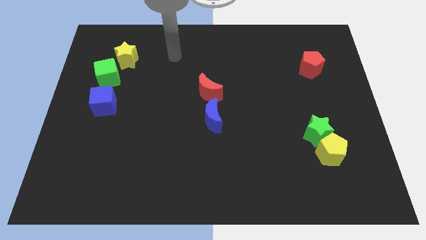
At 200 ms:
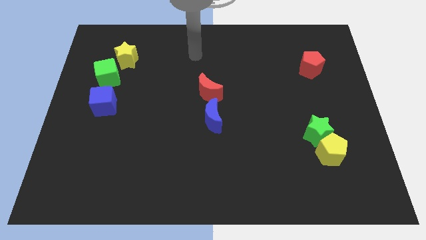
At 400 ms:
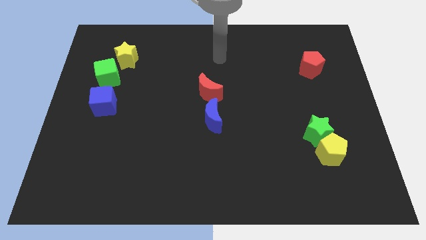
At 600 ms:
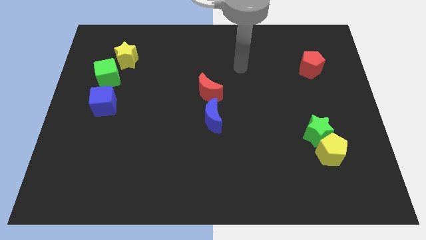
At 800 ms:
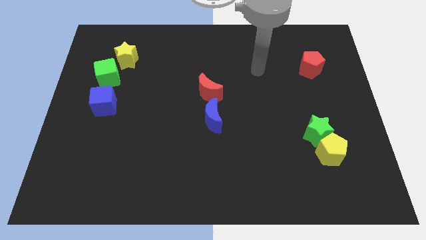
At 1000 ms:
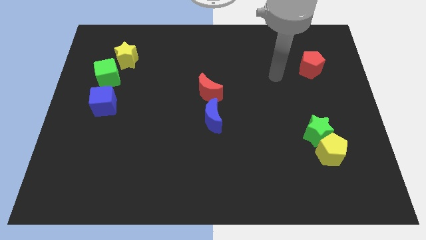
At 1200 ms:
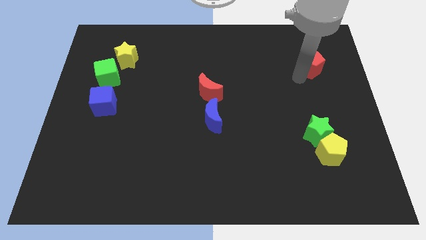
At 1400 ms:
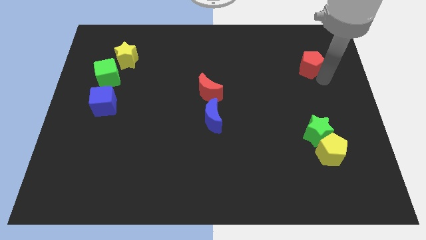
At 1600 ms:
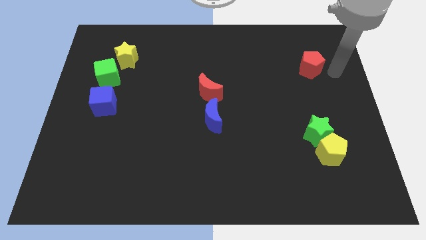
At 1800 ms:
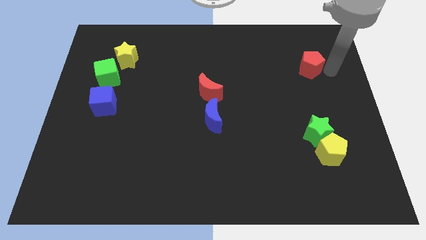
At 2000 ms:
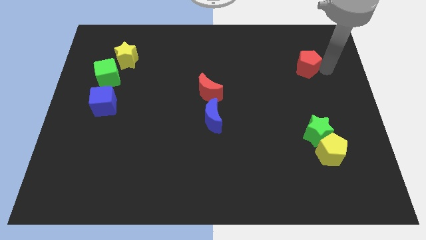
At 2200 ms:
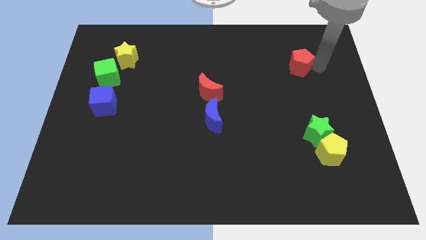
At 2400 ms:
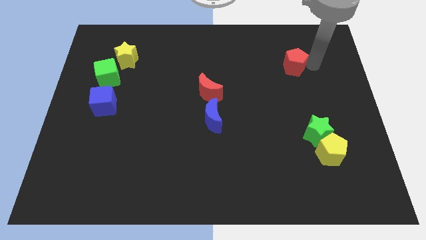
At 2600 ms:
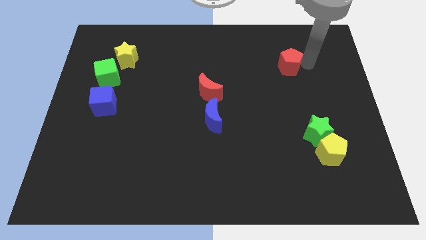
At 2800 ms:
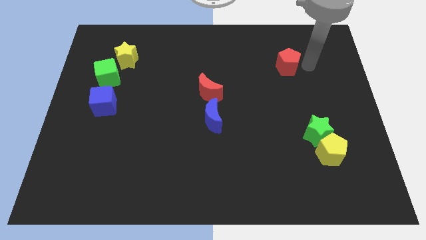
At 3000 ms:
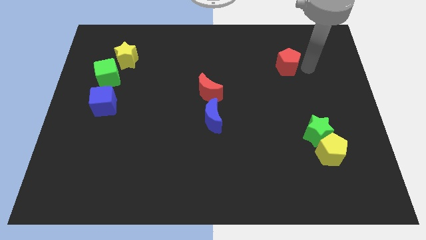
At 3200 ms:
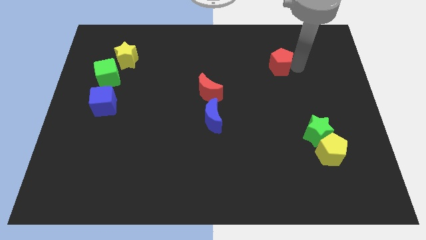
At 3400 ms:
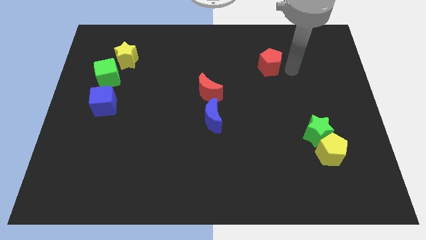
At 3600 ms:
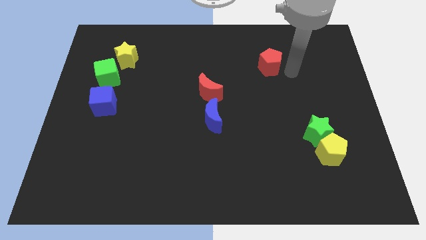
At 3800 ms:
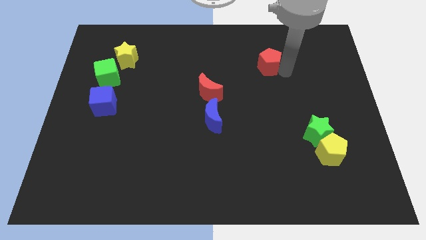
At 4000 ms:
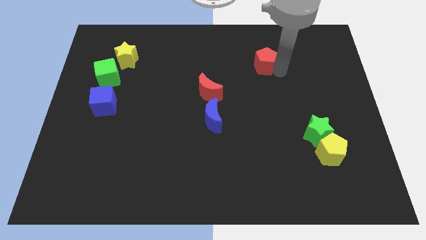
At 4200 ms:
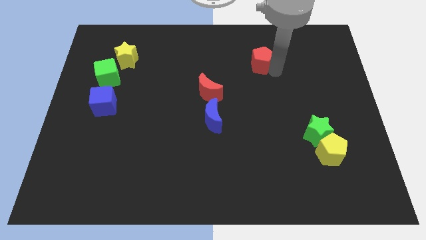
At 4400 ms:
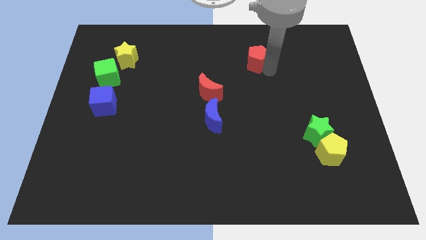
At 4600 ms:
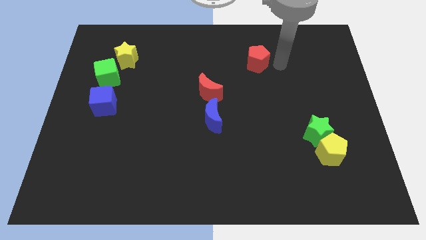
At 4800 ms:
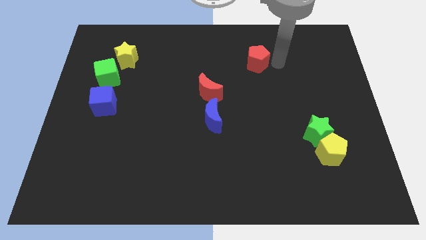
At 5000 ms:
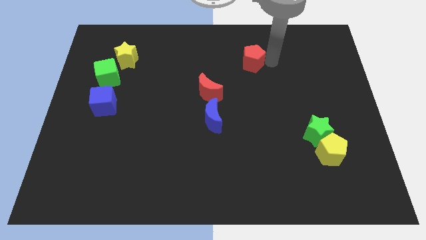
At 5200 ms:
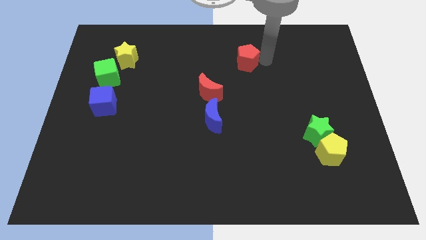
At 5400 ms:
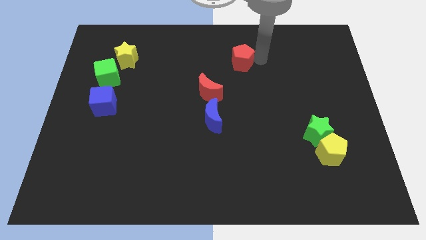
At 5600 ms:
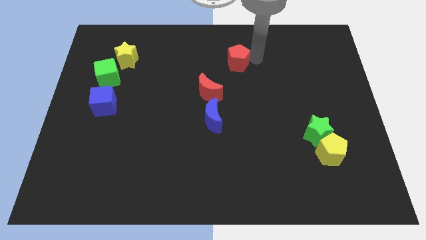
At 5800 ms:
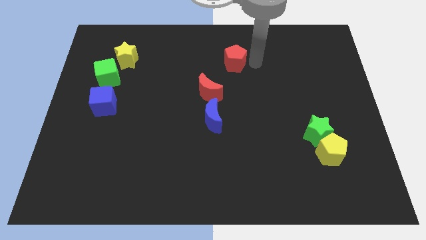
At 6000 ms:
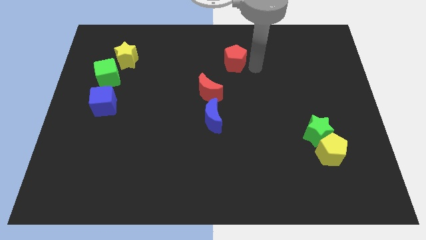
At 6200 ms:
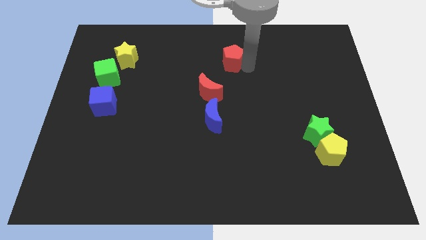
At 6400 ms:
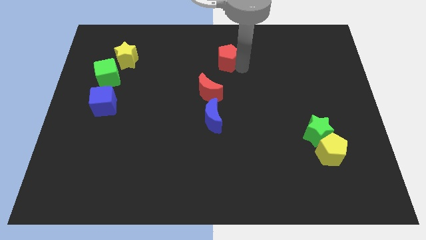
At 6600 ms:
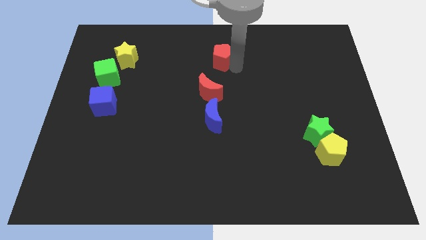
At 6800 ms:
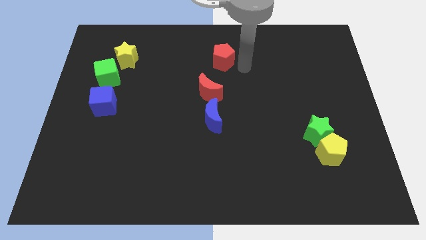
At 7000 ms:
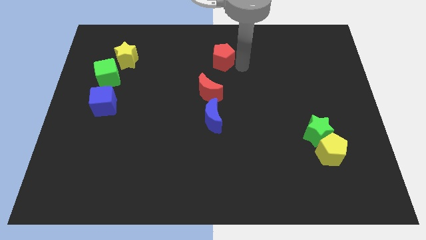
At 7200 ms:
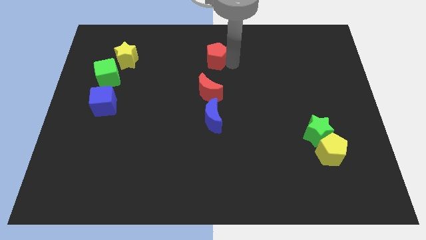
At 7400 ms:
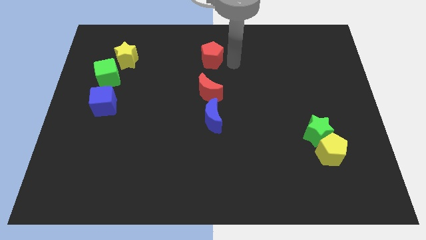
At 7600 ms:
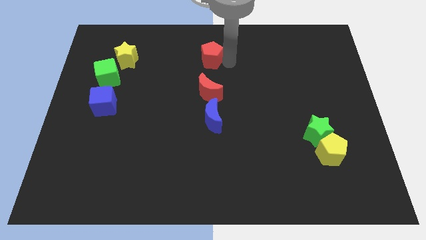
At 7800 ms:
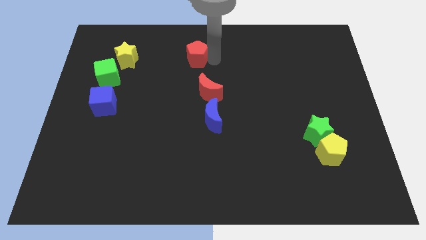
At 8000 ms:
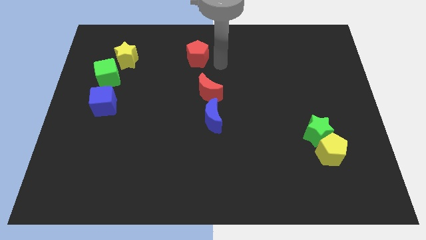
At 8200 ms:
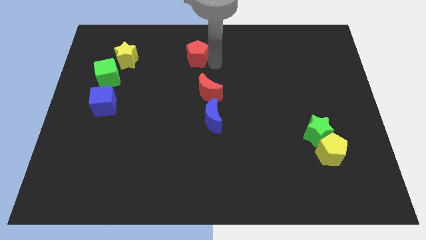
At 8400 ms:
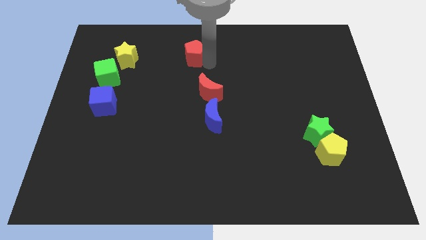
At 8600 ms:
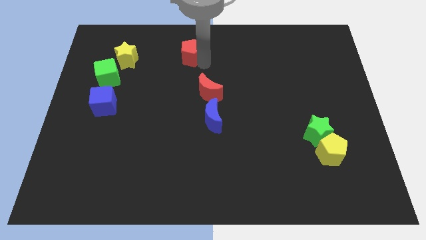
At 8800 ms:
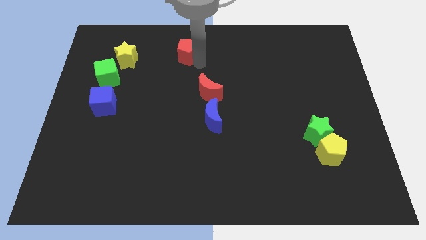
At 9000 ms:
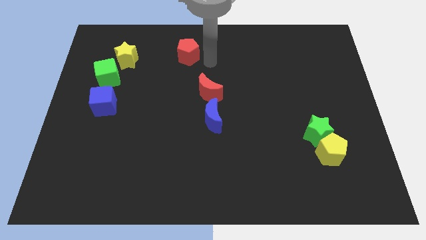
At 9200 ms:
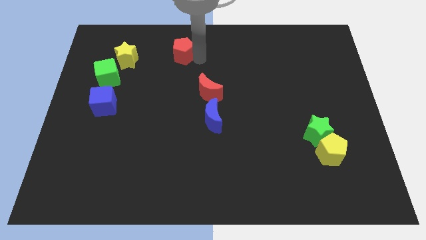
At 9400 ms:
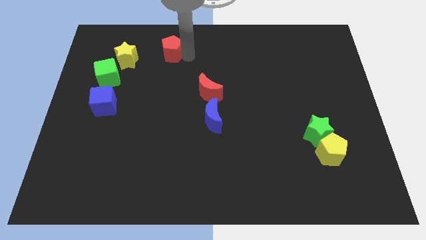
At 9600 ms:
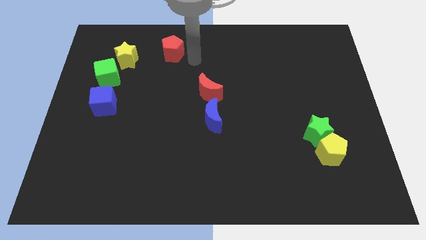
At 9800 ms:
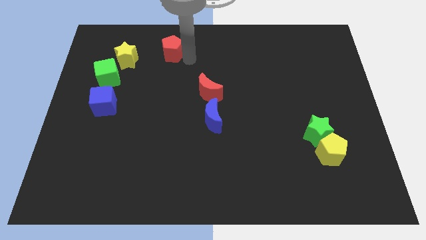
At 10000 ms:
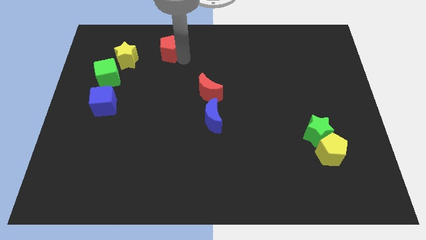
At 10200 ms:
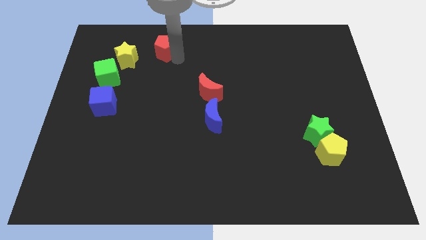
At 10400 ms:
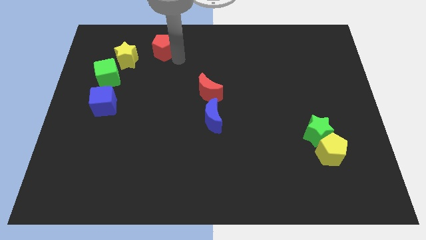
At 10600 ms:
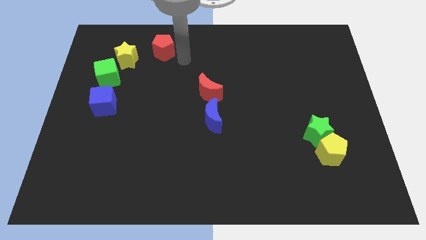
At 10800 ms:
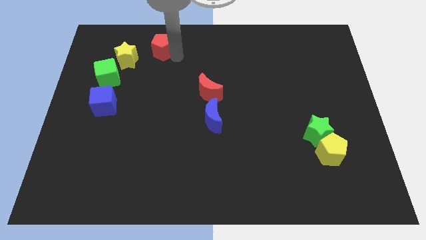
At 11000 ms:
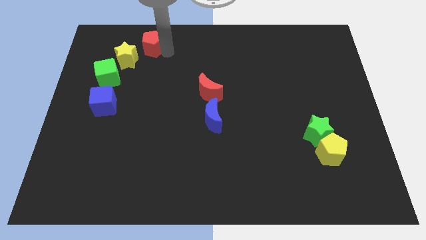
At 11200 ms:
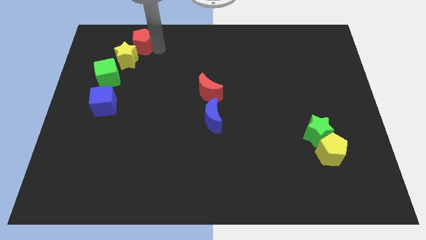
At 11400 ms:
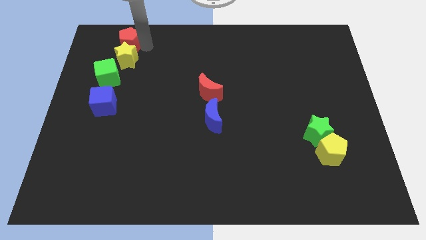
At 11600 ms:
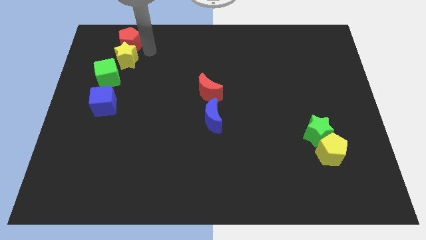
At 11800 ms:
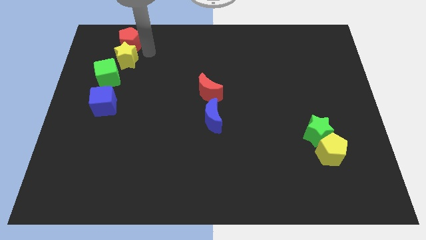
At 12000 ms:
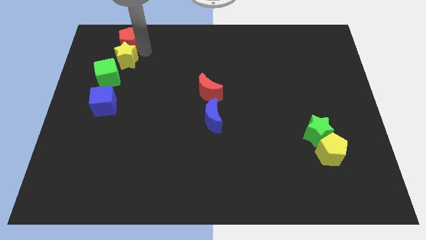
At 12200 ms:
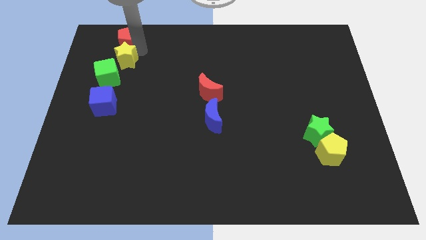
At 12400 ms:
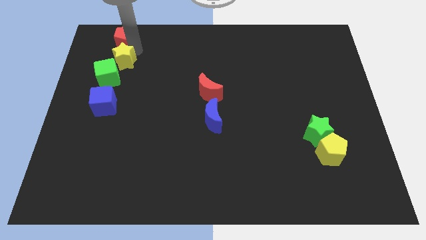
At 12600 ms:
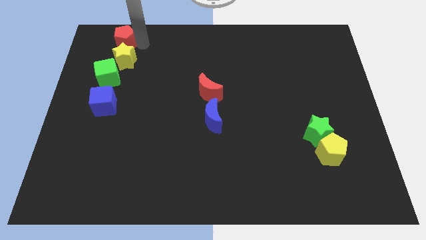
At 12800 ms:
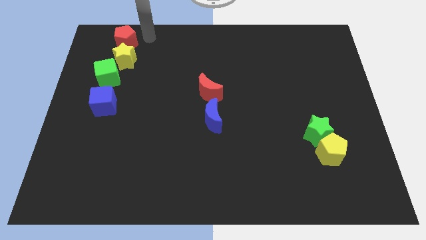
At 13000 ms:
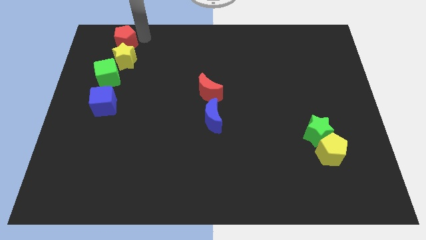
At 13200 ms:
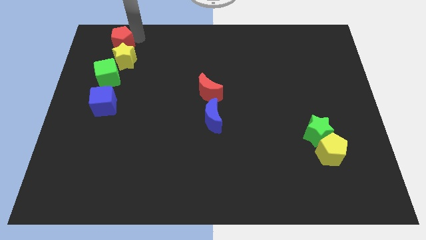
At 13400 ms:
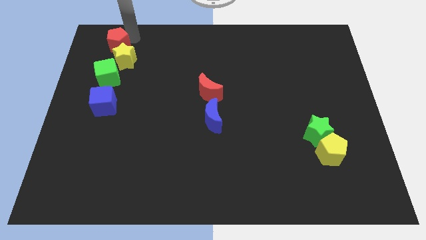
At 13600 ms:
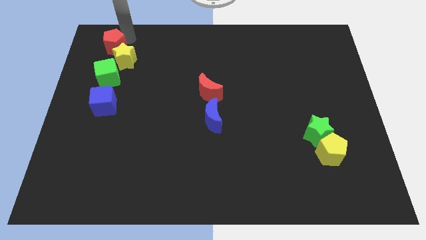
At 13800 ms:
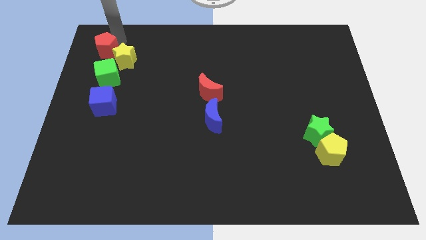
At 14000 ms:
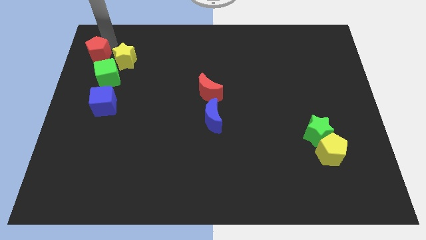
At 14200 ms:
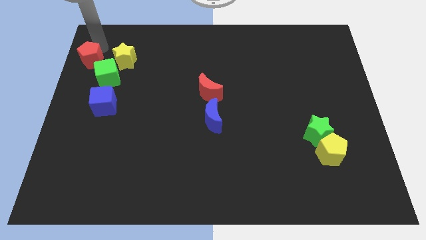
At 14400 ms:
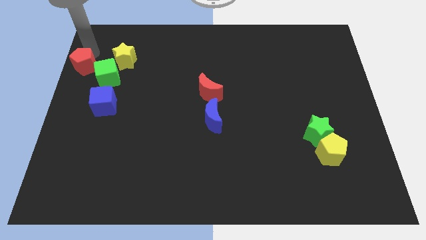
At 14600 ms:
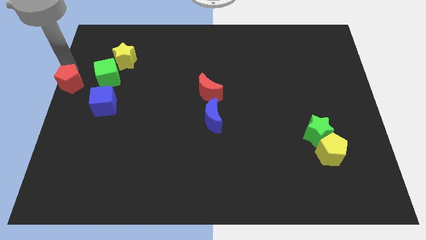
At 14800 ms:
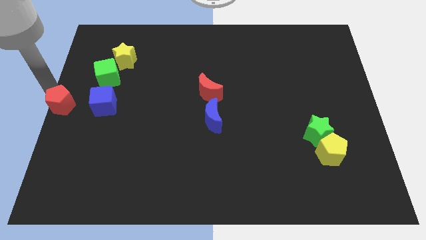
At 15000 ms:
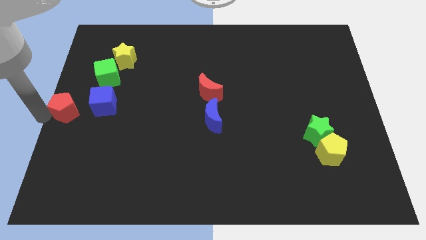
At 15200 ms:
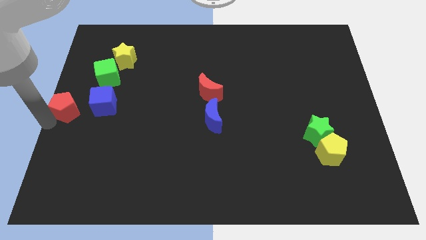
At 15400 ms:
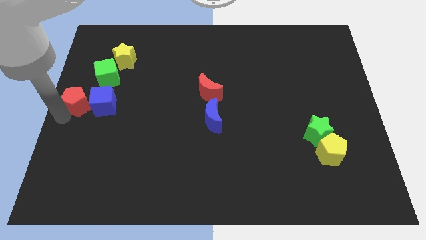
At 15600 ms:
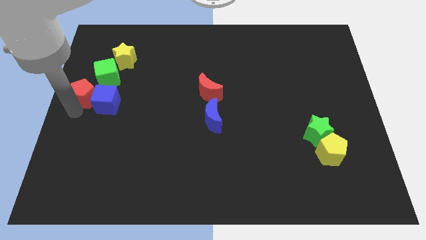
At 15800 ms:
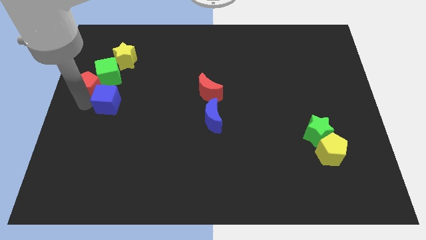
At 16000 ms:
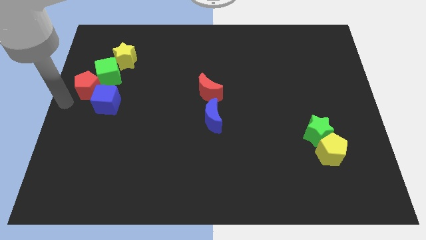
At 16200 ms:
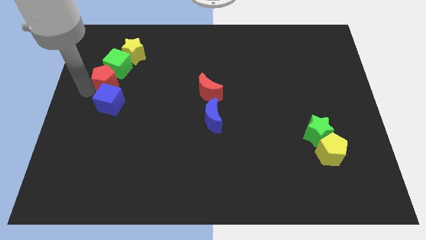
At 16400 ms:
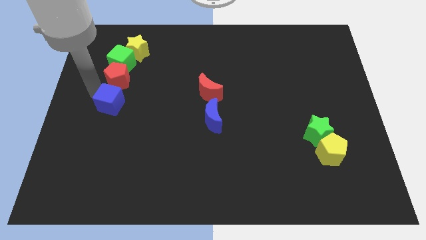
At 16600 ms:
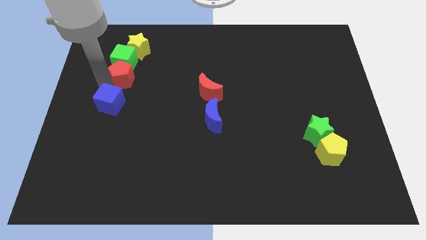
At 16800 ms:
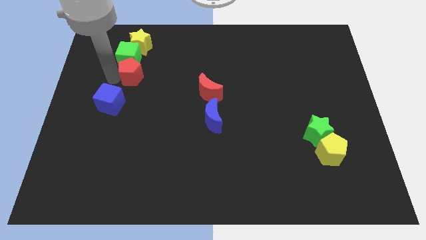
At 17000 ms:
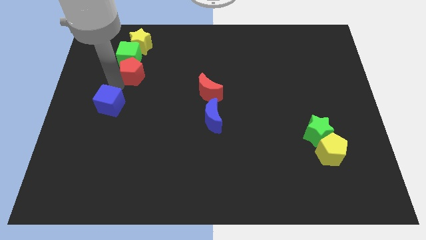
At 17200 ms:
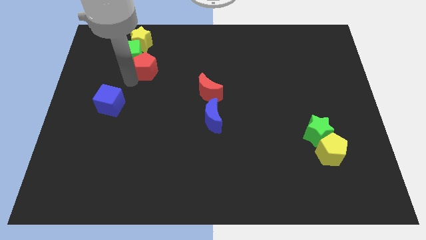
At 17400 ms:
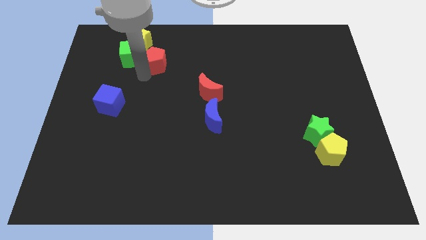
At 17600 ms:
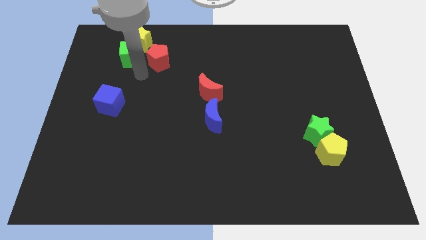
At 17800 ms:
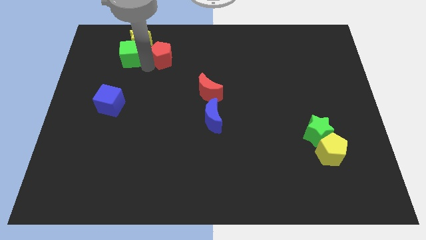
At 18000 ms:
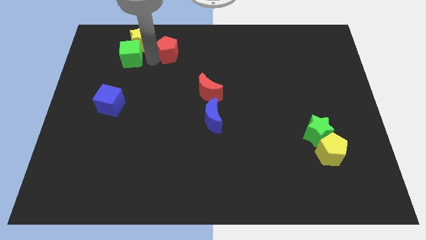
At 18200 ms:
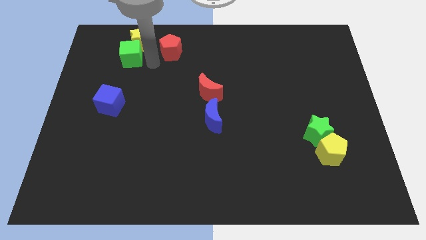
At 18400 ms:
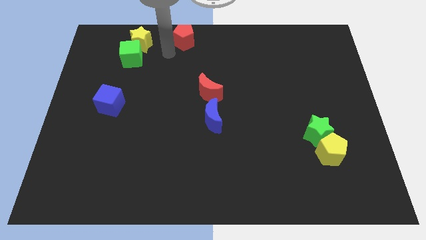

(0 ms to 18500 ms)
push the red pentagon to the top
